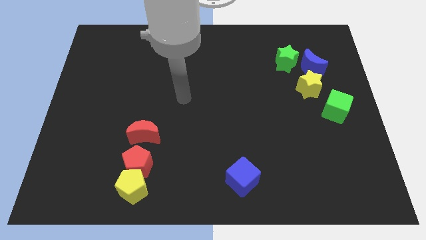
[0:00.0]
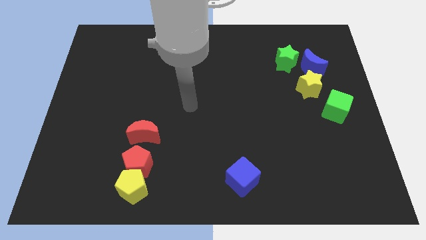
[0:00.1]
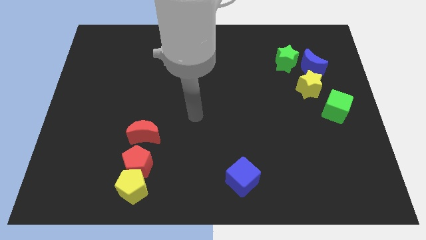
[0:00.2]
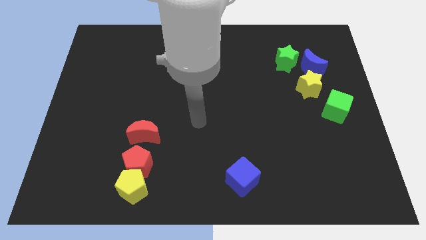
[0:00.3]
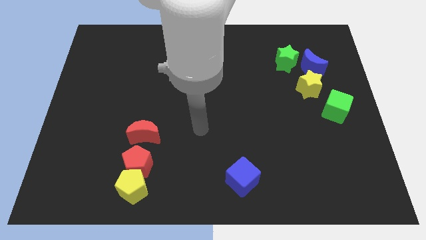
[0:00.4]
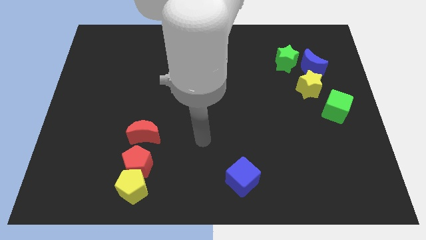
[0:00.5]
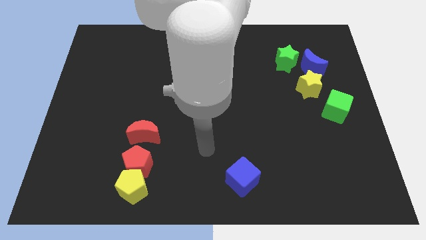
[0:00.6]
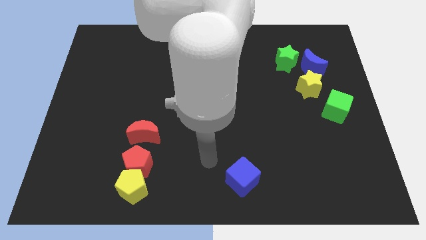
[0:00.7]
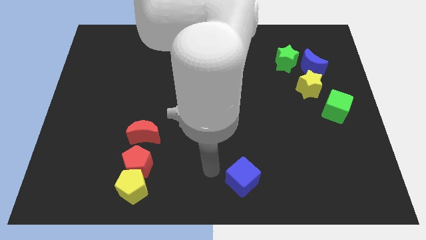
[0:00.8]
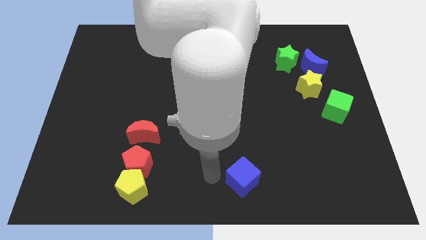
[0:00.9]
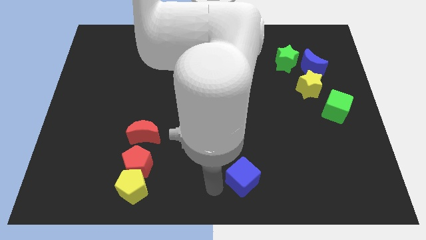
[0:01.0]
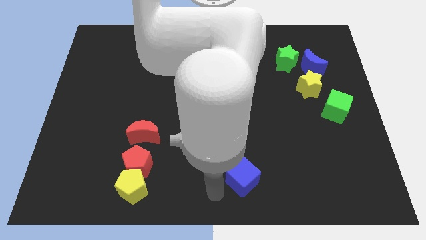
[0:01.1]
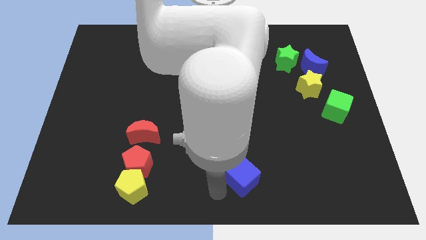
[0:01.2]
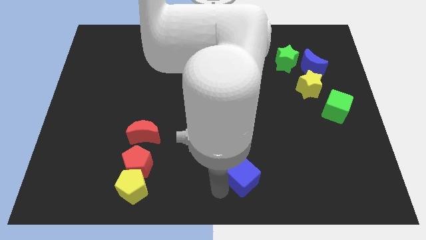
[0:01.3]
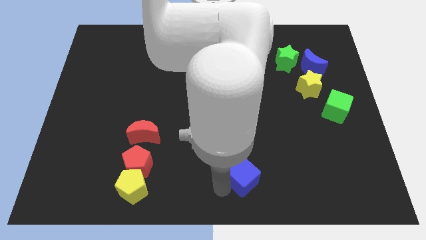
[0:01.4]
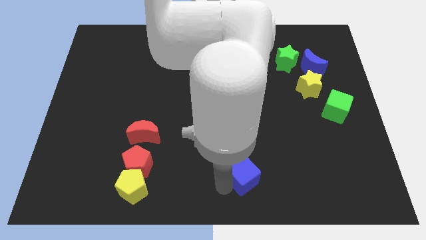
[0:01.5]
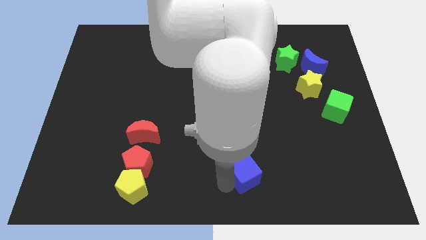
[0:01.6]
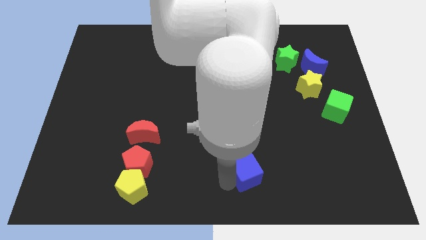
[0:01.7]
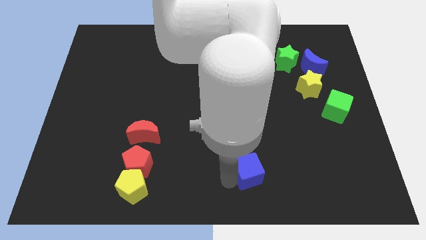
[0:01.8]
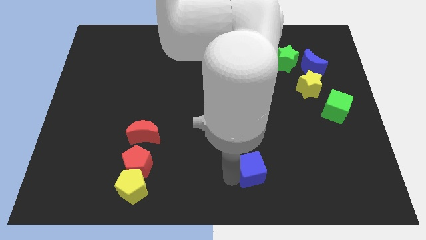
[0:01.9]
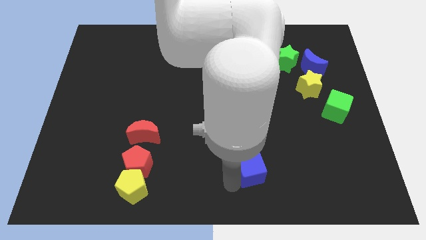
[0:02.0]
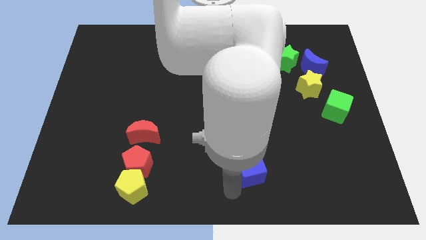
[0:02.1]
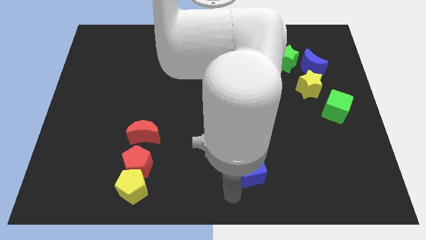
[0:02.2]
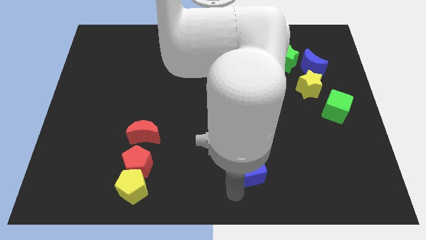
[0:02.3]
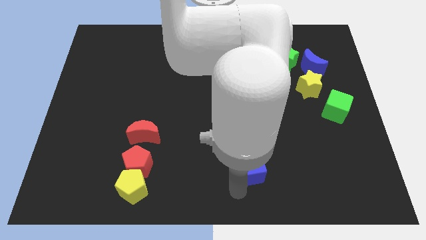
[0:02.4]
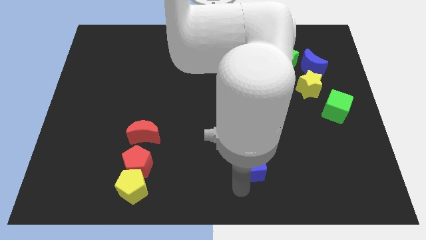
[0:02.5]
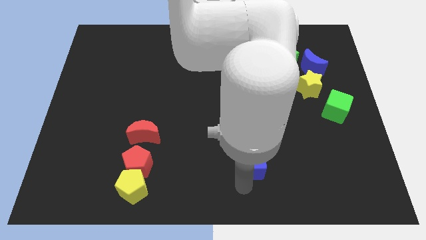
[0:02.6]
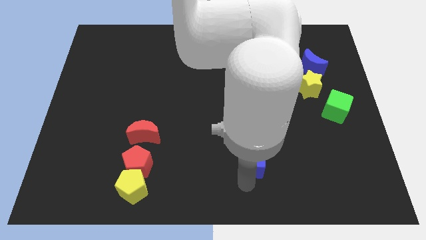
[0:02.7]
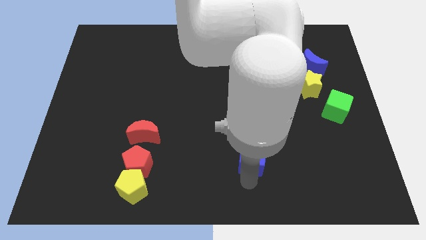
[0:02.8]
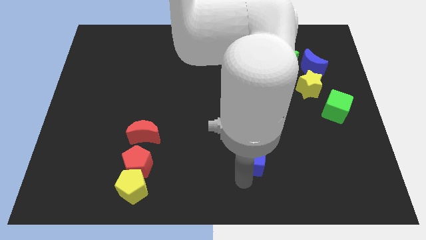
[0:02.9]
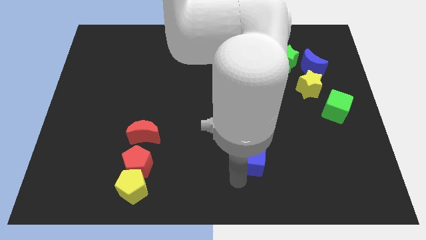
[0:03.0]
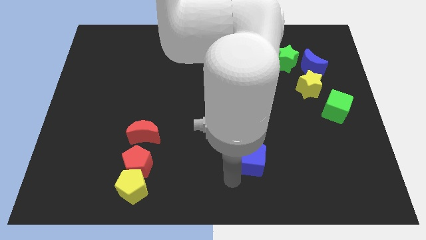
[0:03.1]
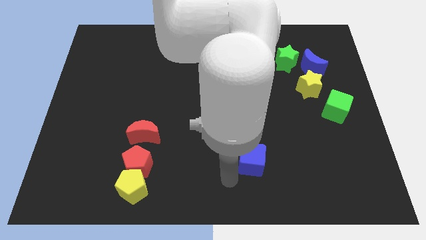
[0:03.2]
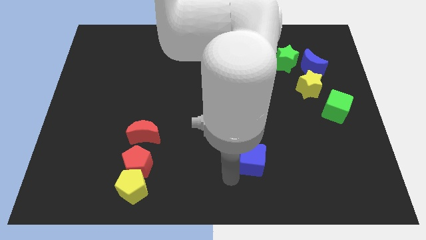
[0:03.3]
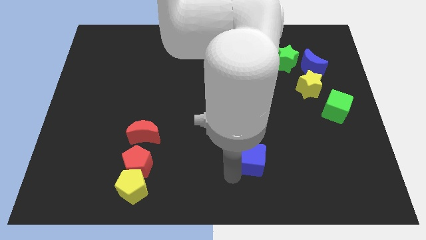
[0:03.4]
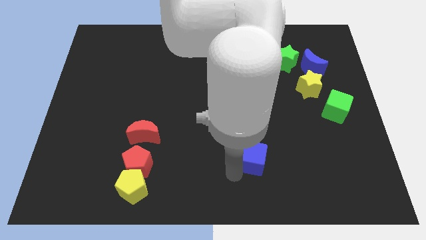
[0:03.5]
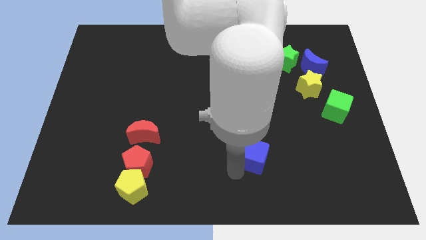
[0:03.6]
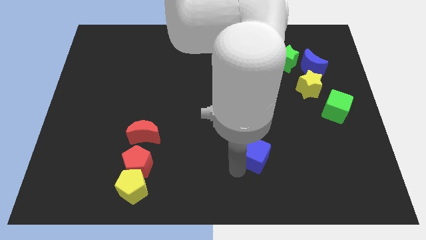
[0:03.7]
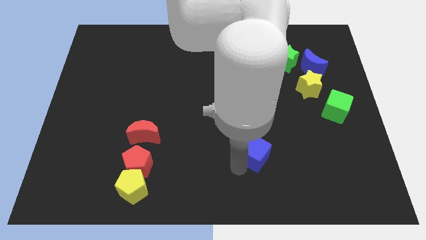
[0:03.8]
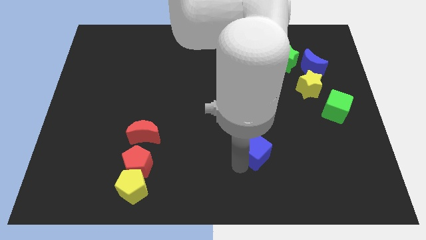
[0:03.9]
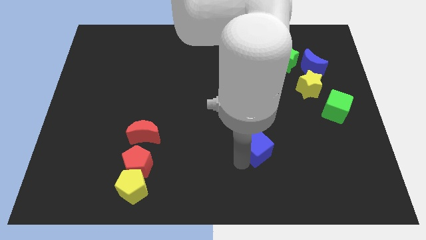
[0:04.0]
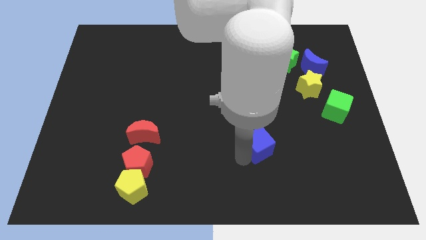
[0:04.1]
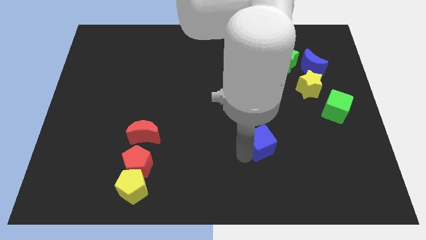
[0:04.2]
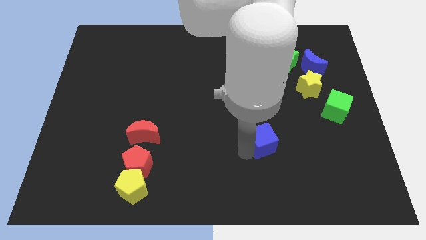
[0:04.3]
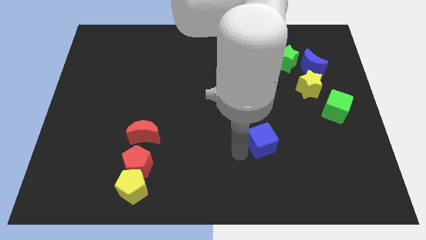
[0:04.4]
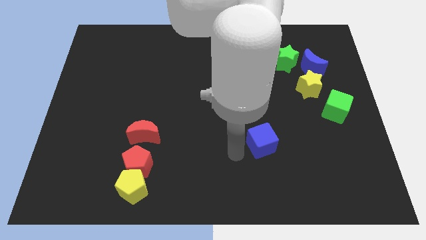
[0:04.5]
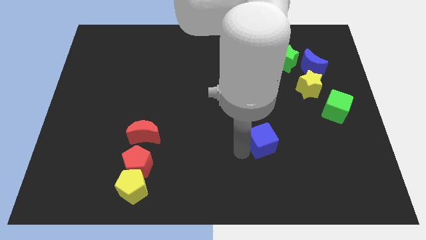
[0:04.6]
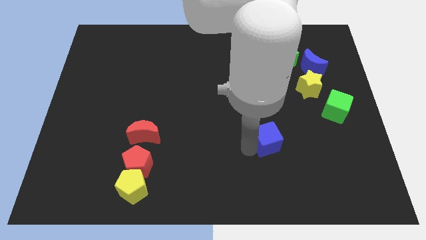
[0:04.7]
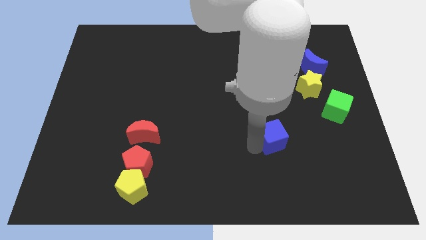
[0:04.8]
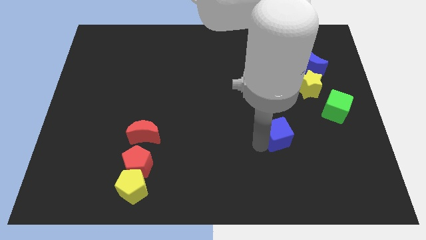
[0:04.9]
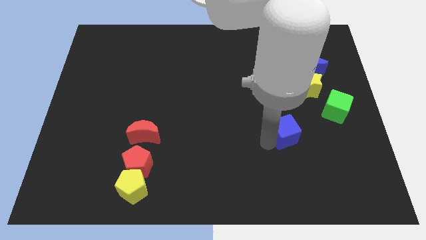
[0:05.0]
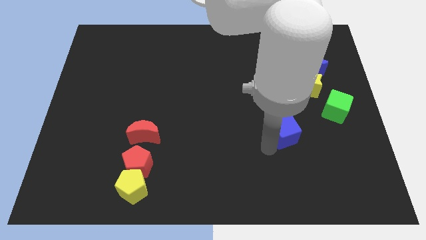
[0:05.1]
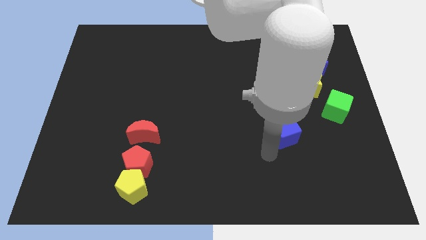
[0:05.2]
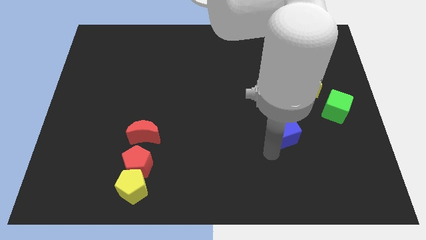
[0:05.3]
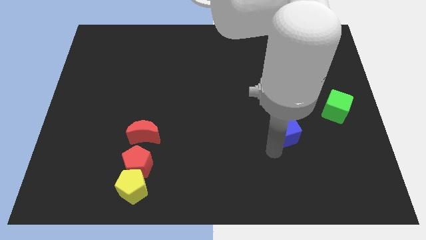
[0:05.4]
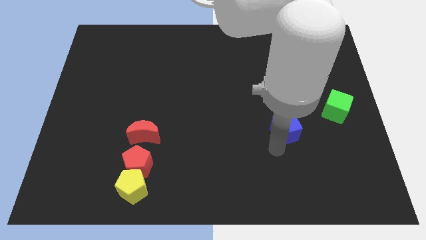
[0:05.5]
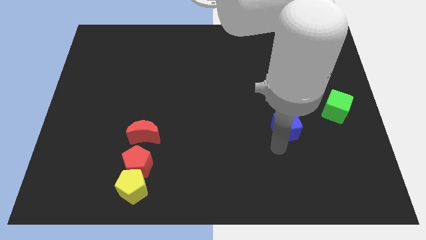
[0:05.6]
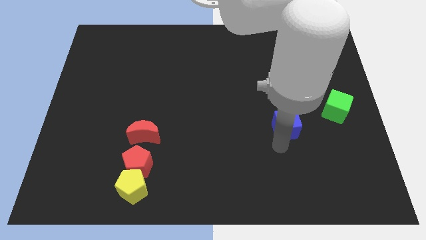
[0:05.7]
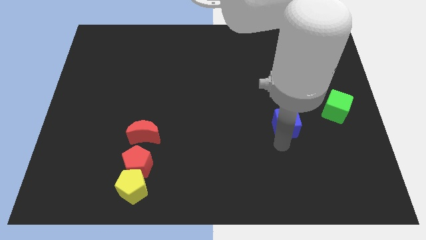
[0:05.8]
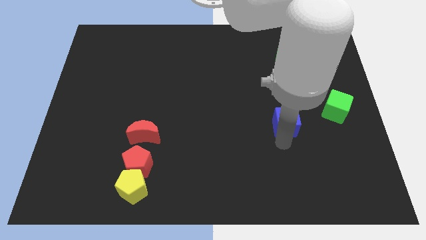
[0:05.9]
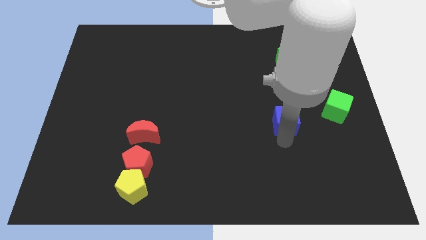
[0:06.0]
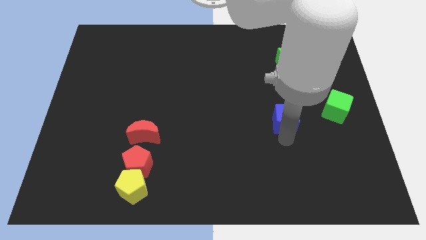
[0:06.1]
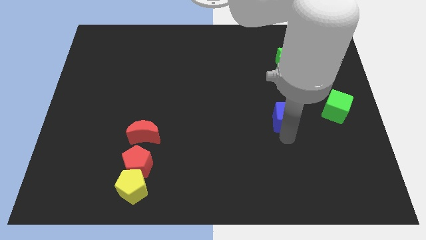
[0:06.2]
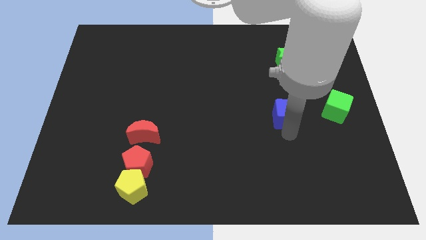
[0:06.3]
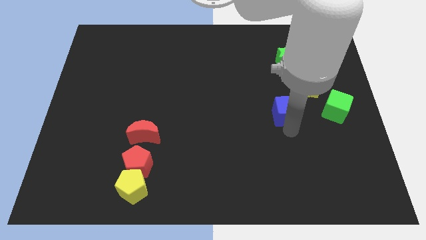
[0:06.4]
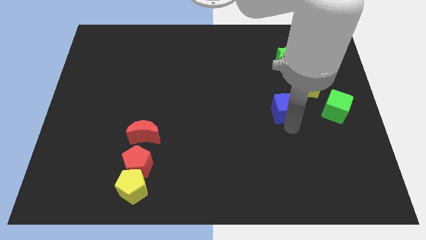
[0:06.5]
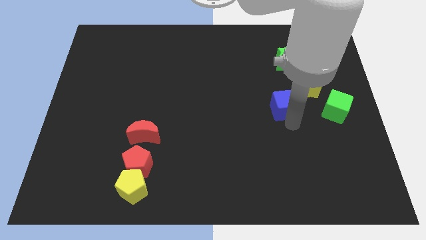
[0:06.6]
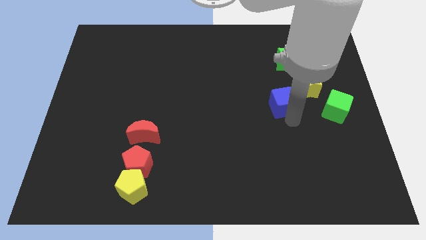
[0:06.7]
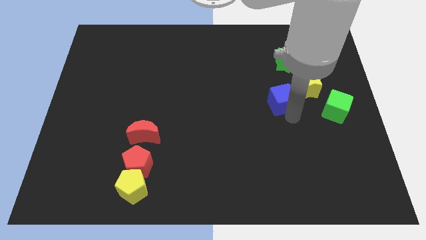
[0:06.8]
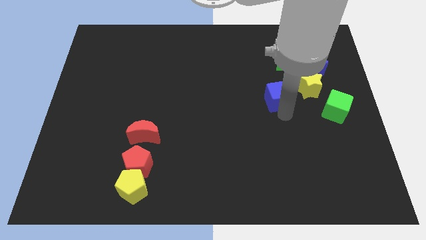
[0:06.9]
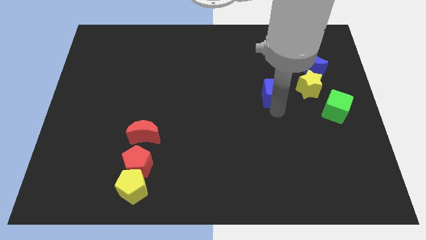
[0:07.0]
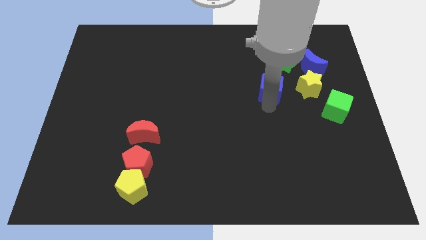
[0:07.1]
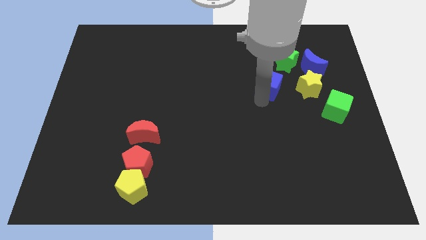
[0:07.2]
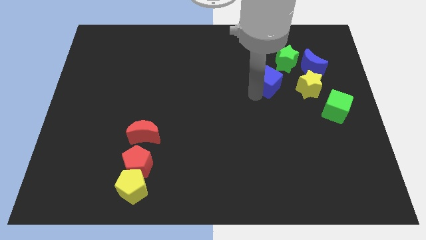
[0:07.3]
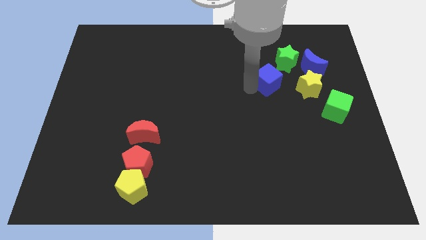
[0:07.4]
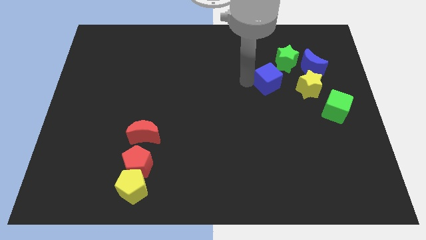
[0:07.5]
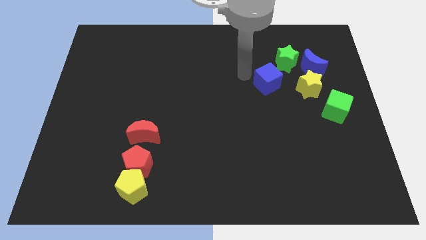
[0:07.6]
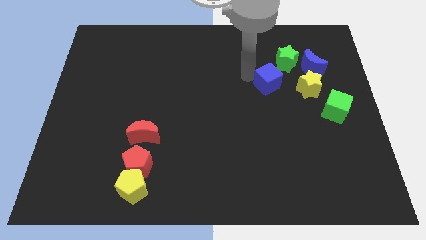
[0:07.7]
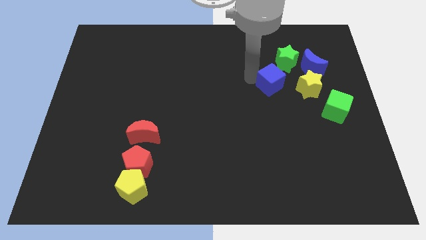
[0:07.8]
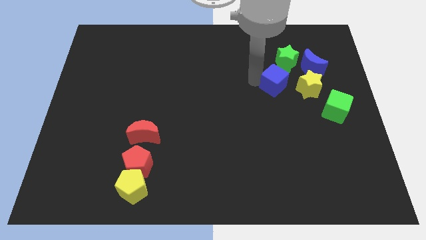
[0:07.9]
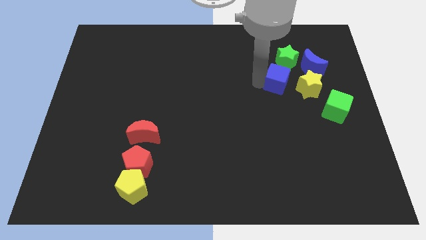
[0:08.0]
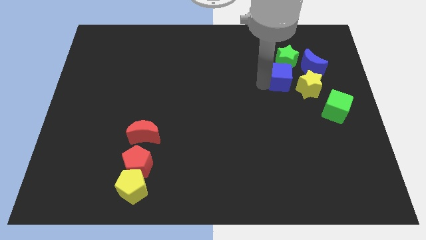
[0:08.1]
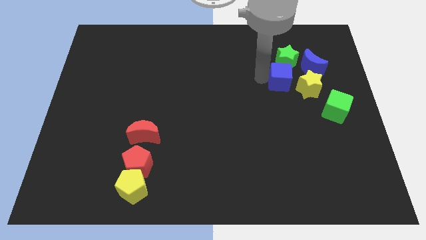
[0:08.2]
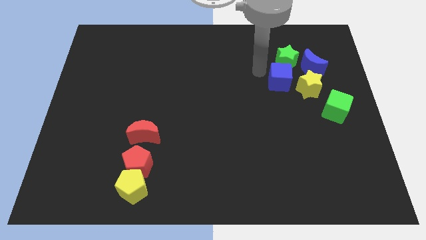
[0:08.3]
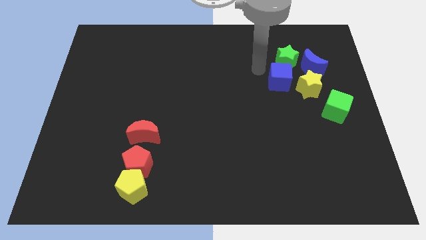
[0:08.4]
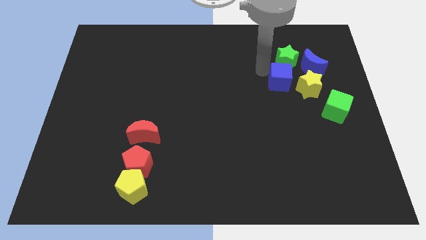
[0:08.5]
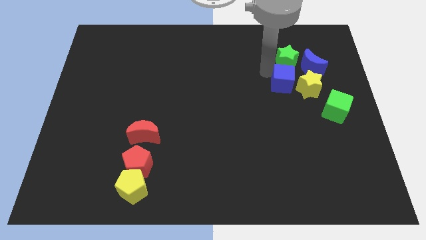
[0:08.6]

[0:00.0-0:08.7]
slide the blue cube upwards and then right
